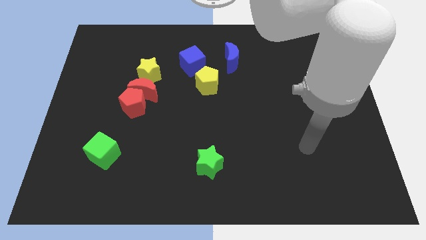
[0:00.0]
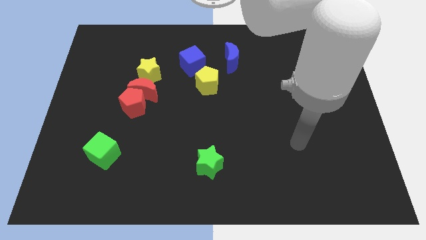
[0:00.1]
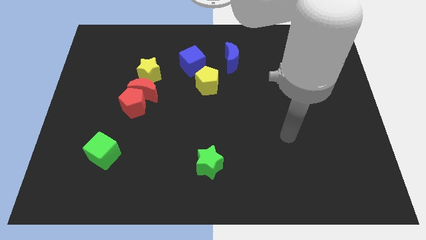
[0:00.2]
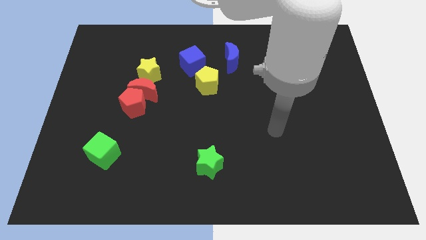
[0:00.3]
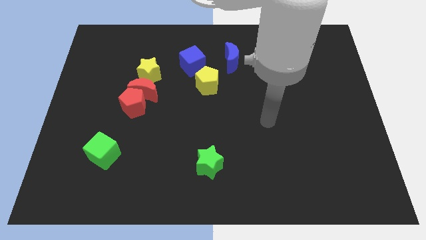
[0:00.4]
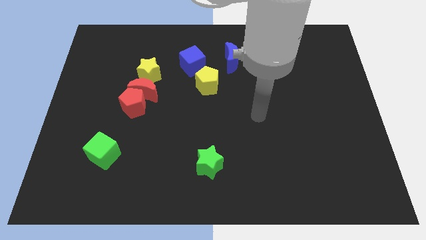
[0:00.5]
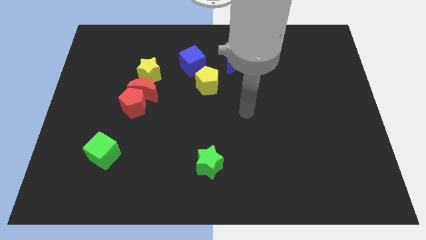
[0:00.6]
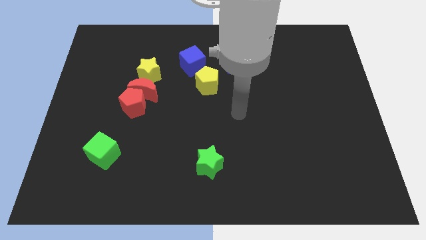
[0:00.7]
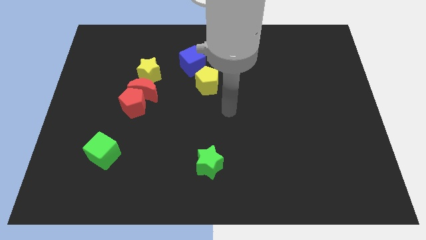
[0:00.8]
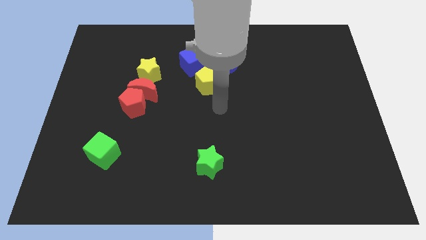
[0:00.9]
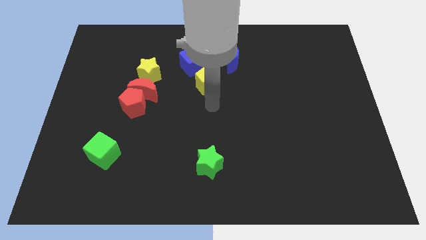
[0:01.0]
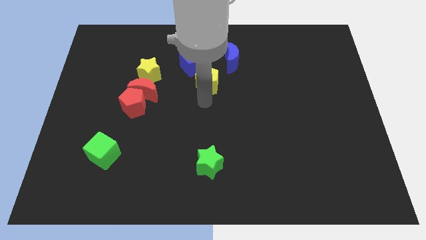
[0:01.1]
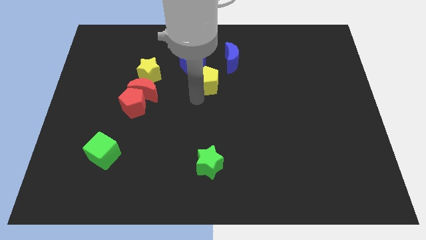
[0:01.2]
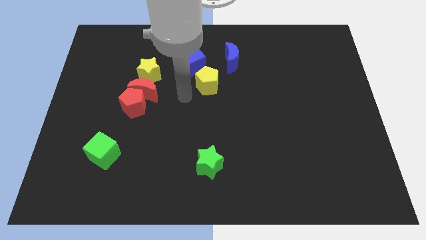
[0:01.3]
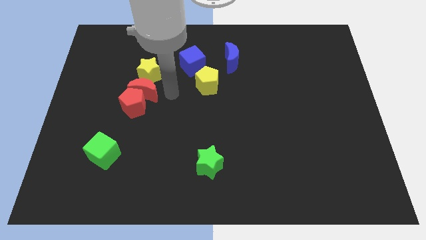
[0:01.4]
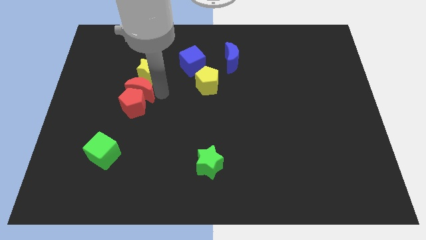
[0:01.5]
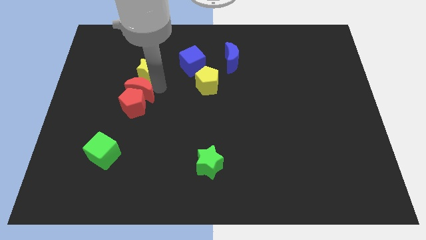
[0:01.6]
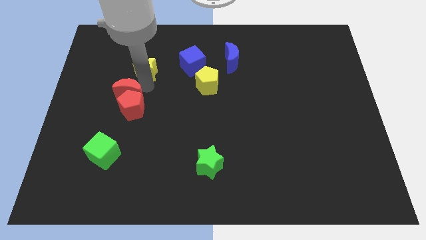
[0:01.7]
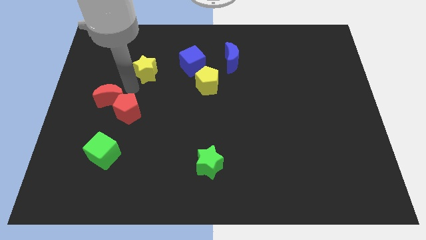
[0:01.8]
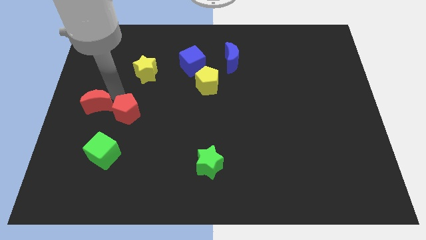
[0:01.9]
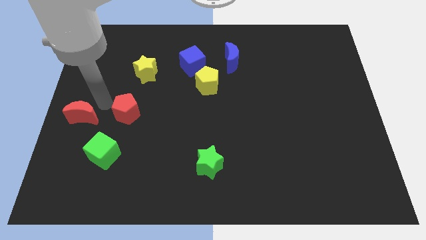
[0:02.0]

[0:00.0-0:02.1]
pull the red pentagon apart from the red moon

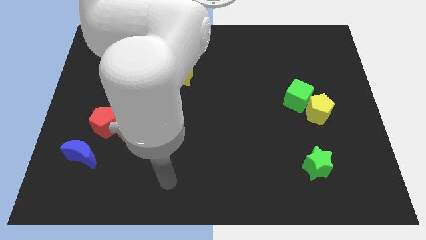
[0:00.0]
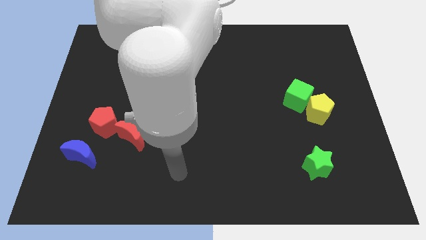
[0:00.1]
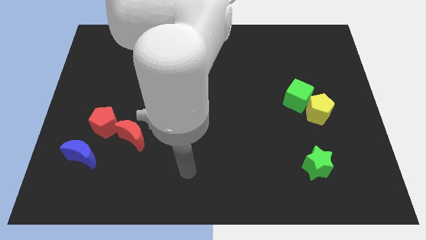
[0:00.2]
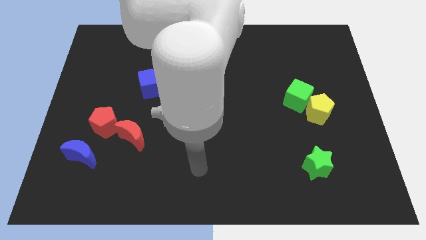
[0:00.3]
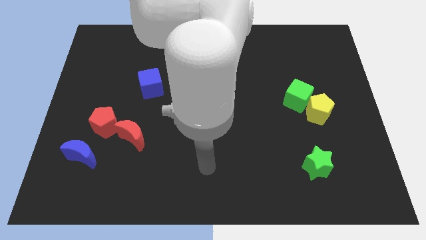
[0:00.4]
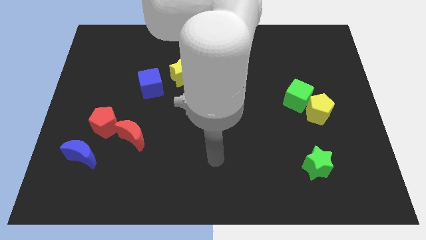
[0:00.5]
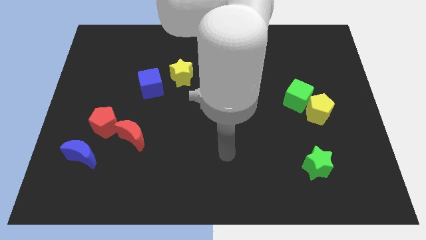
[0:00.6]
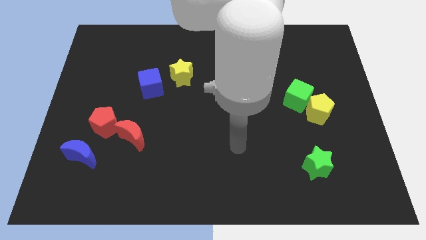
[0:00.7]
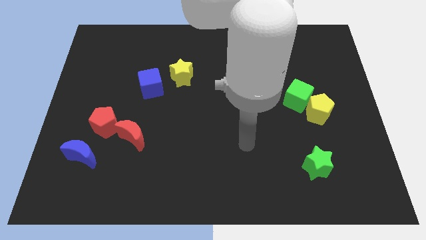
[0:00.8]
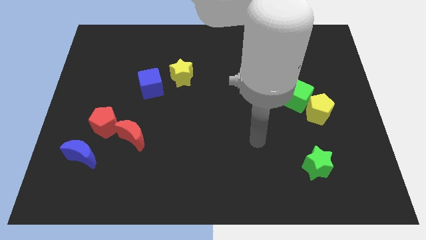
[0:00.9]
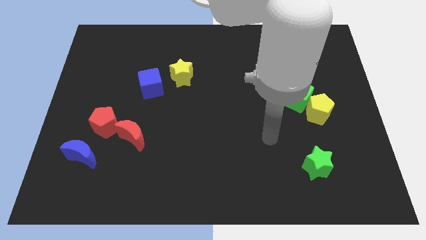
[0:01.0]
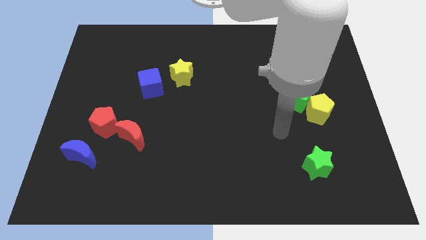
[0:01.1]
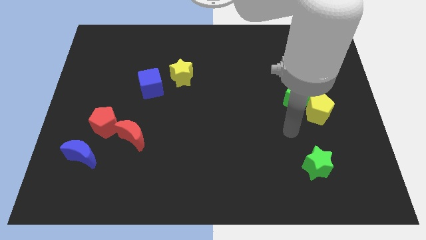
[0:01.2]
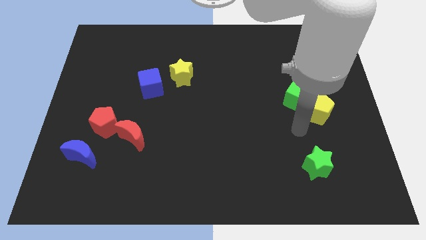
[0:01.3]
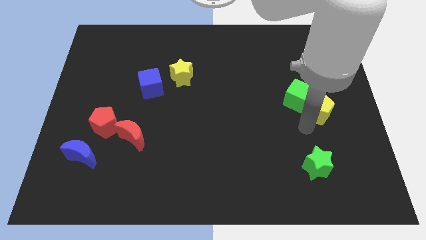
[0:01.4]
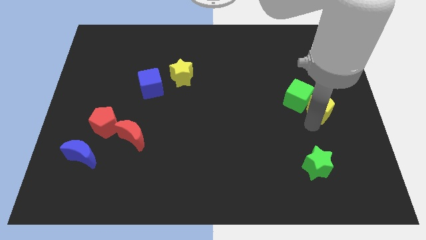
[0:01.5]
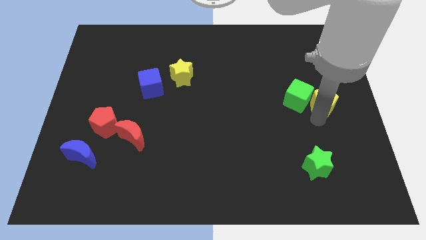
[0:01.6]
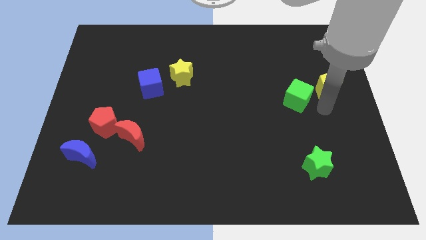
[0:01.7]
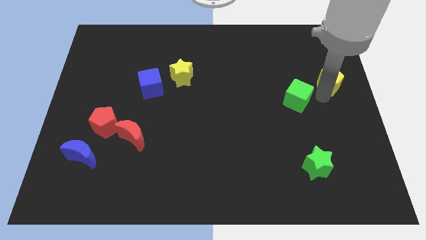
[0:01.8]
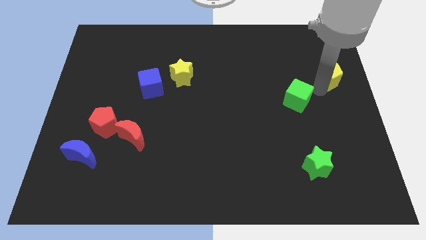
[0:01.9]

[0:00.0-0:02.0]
move the green cube away from the yellow pentagon

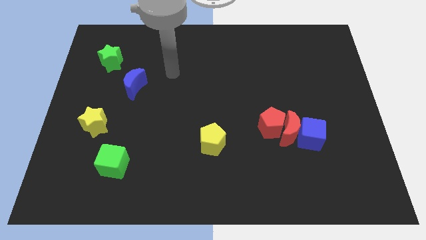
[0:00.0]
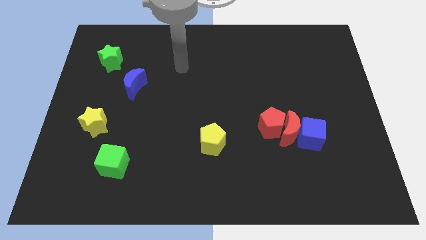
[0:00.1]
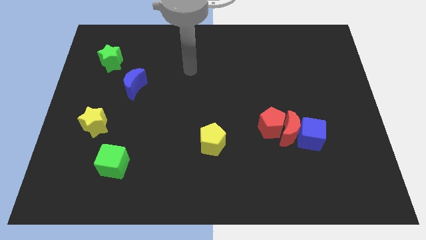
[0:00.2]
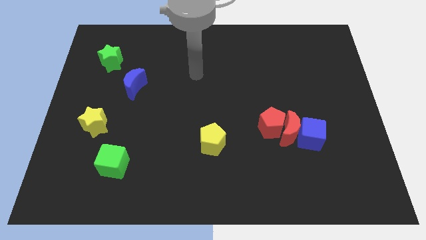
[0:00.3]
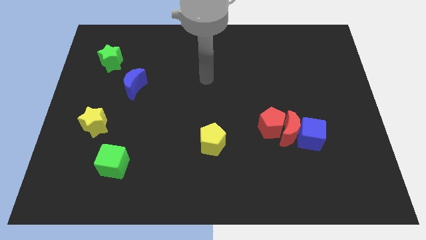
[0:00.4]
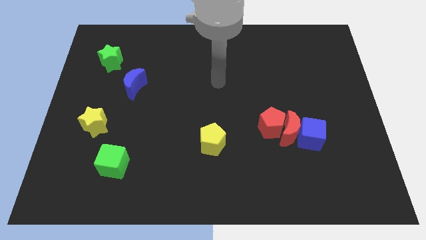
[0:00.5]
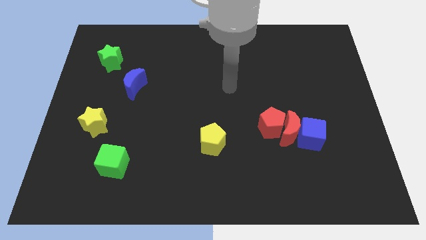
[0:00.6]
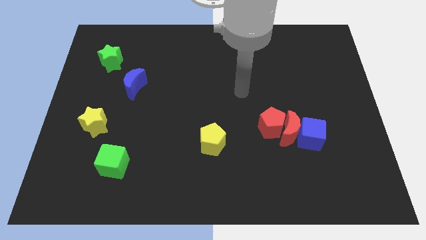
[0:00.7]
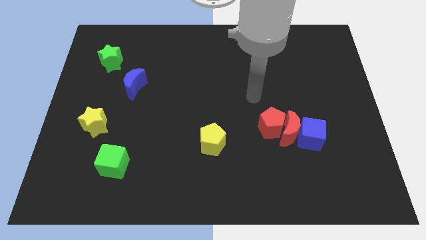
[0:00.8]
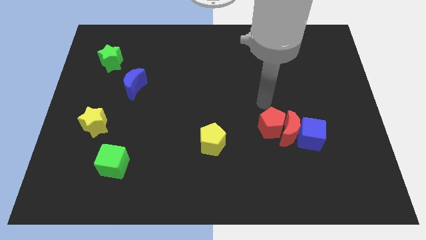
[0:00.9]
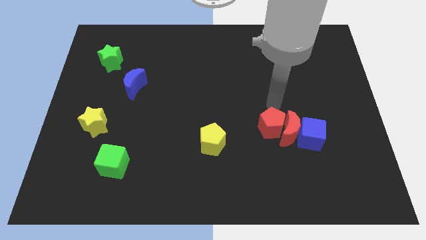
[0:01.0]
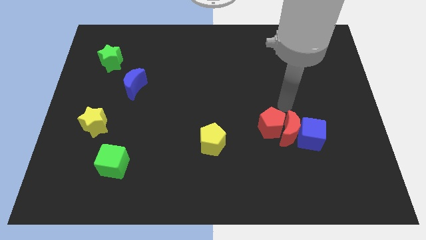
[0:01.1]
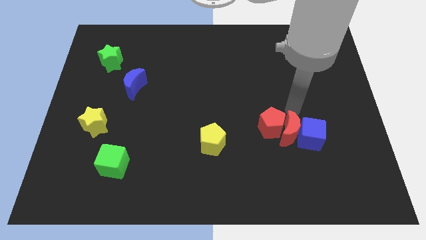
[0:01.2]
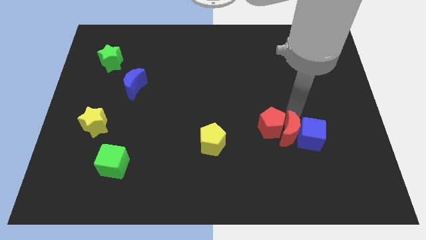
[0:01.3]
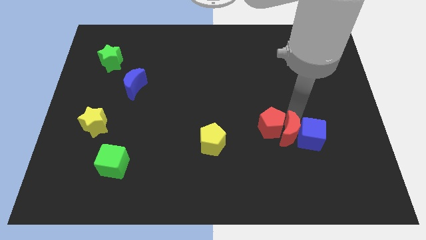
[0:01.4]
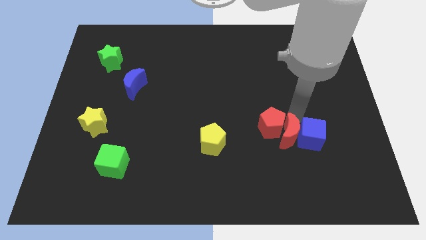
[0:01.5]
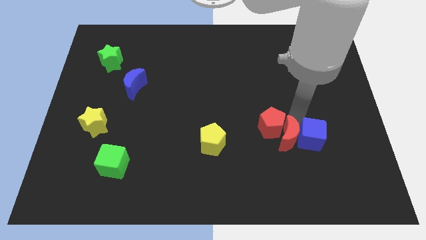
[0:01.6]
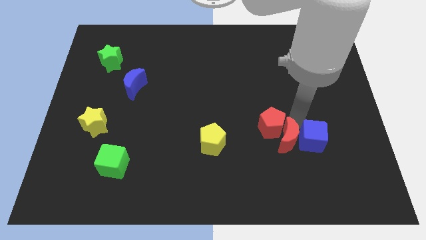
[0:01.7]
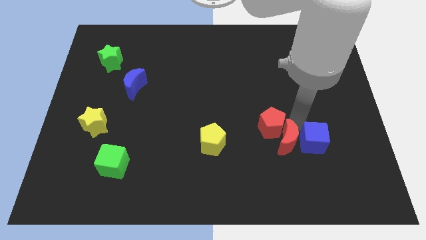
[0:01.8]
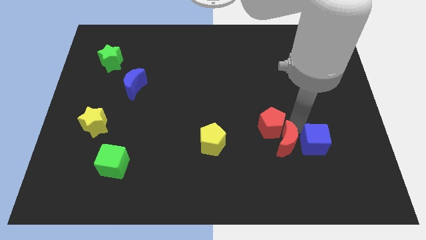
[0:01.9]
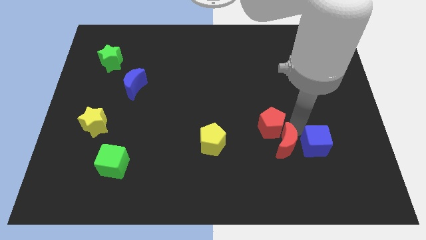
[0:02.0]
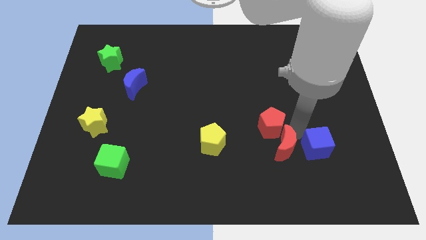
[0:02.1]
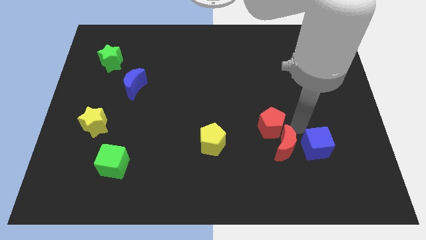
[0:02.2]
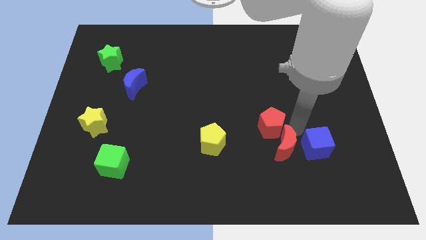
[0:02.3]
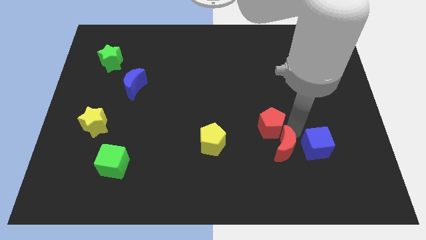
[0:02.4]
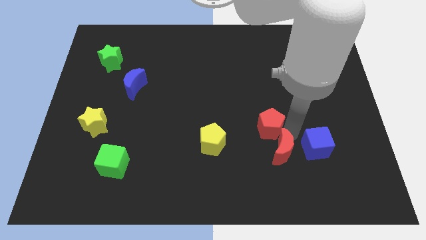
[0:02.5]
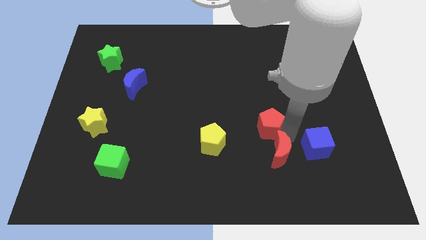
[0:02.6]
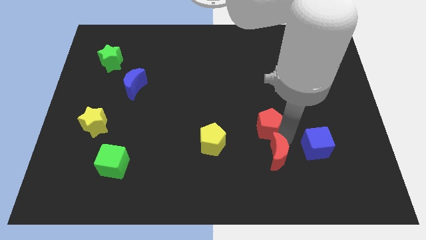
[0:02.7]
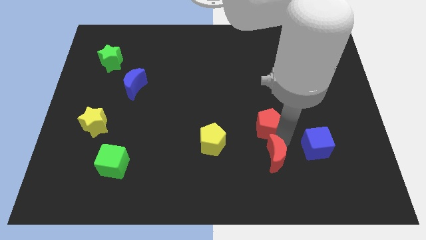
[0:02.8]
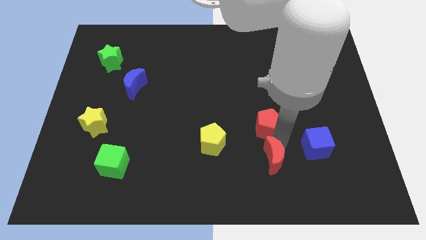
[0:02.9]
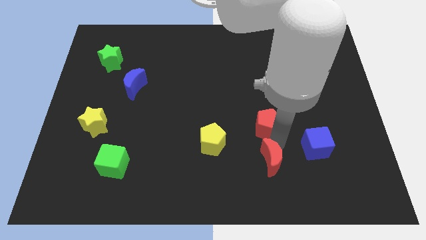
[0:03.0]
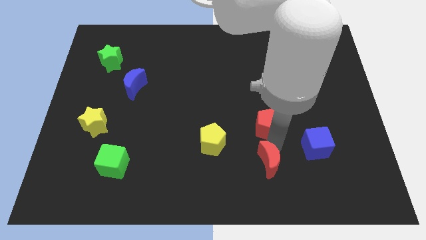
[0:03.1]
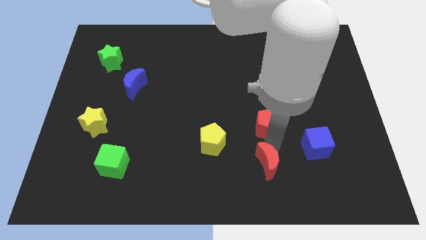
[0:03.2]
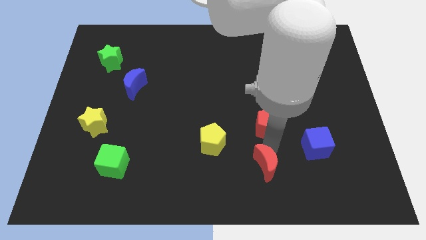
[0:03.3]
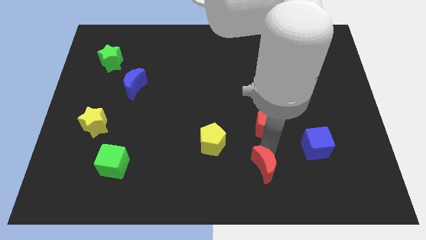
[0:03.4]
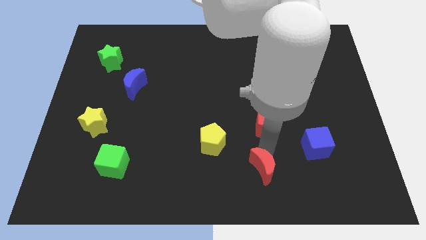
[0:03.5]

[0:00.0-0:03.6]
move the red moon away from the blue cube and red pentagon

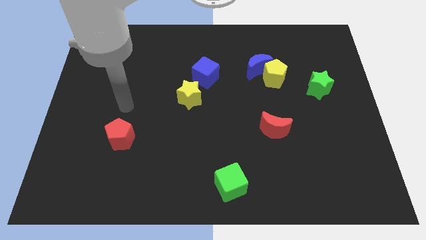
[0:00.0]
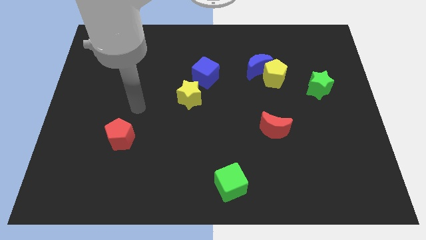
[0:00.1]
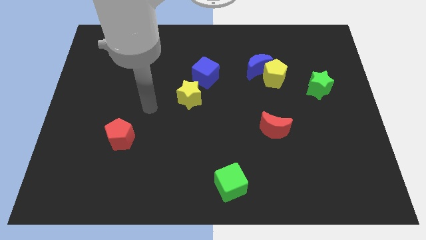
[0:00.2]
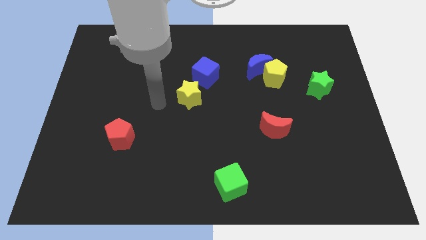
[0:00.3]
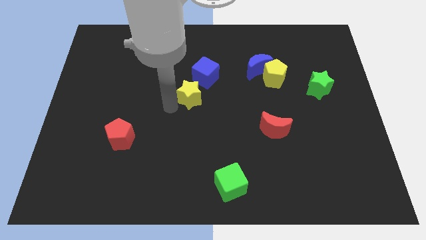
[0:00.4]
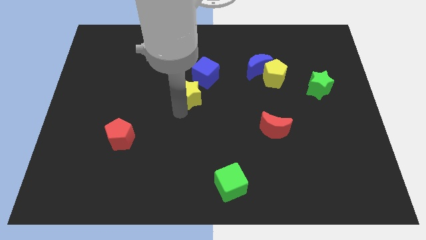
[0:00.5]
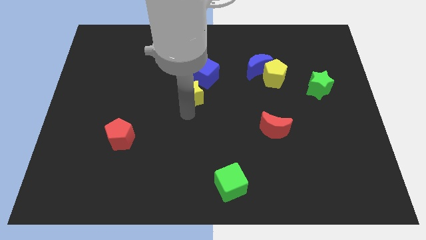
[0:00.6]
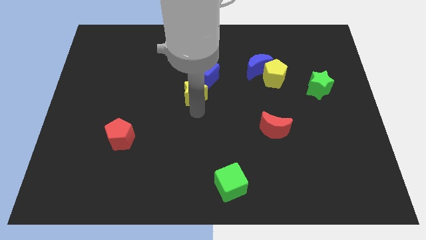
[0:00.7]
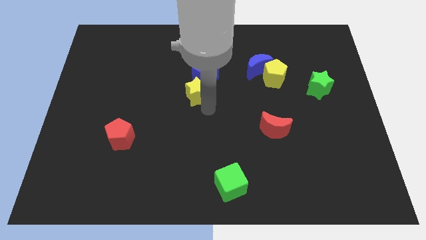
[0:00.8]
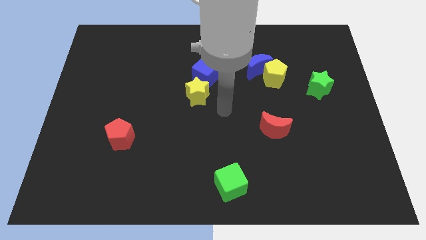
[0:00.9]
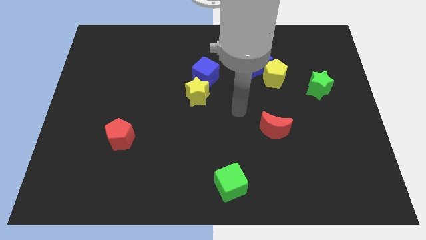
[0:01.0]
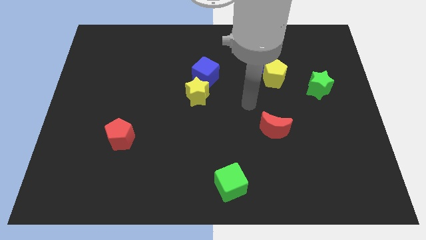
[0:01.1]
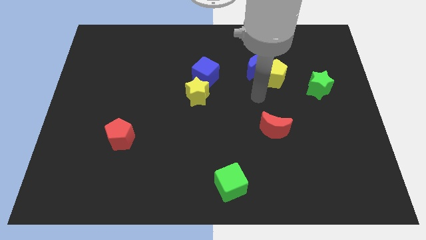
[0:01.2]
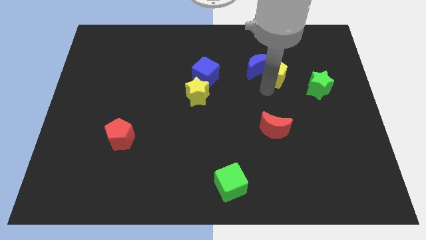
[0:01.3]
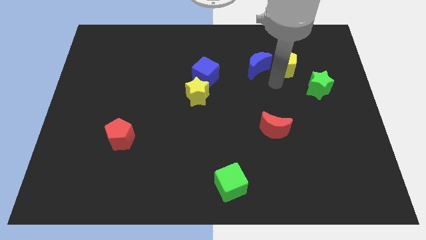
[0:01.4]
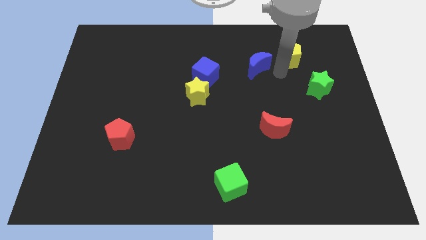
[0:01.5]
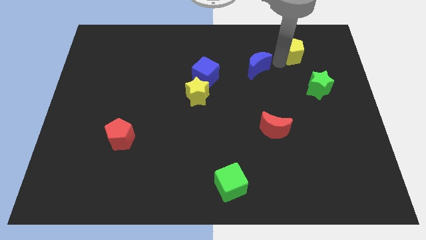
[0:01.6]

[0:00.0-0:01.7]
move the blue moon away from the yellow pentagon
